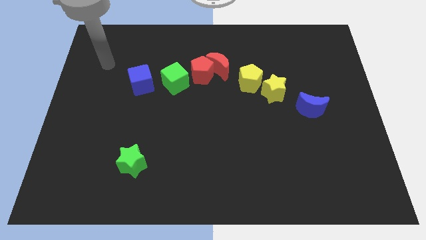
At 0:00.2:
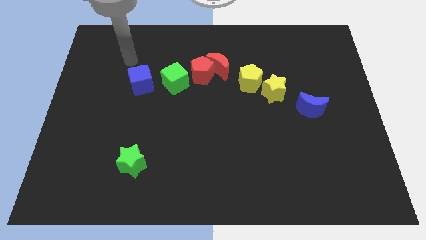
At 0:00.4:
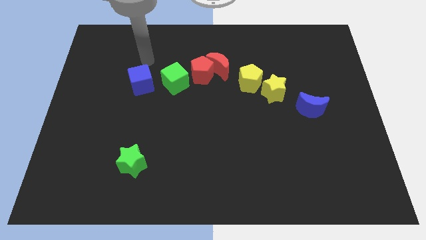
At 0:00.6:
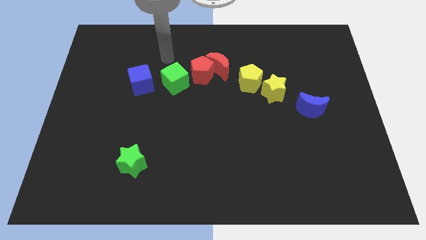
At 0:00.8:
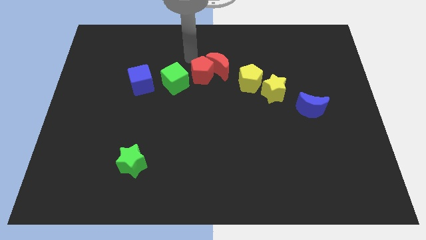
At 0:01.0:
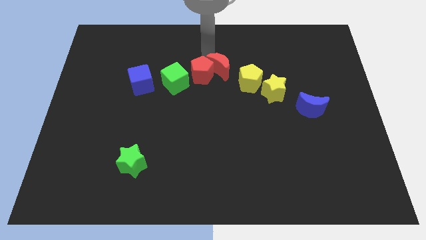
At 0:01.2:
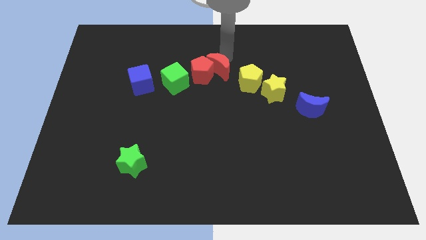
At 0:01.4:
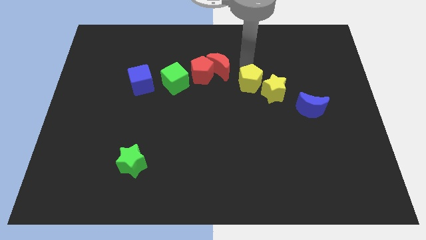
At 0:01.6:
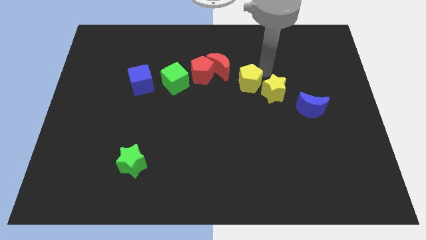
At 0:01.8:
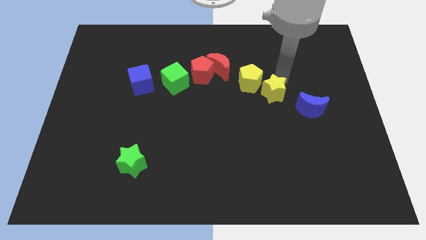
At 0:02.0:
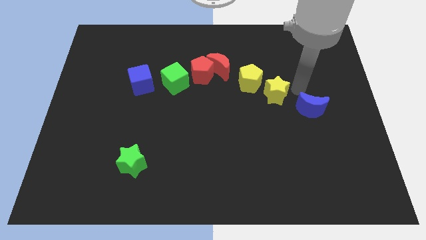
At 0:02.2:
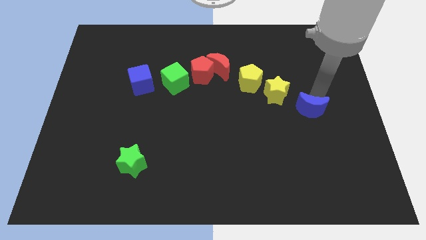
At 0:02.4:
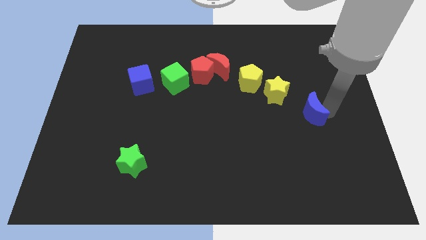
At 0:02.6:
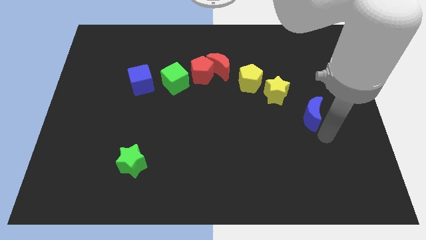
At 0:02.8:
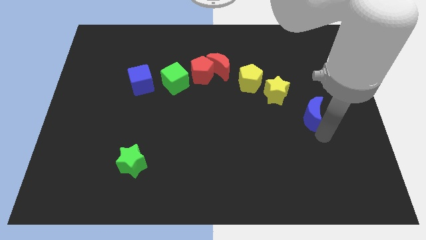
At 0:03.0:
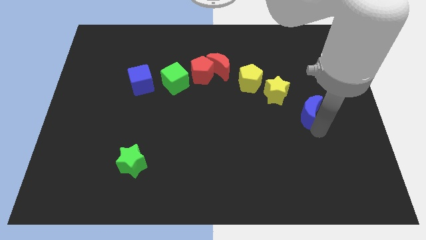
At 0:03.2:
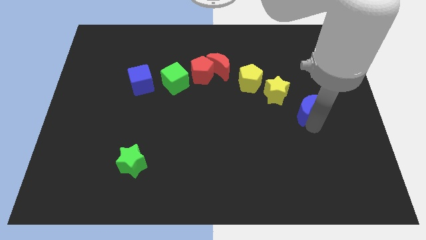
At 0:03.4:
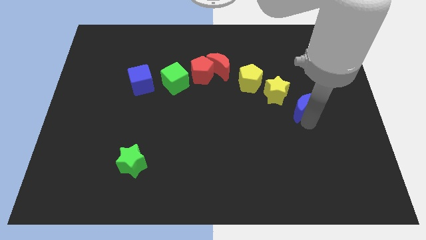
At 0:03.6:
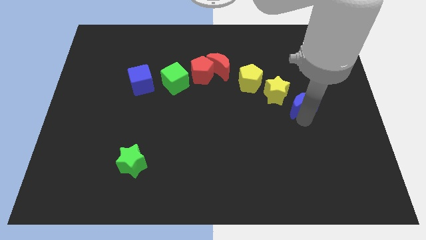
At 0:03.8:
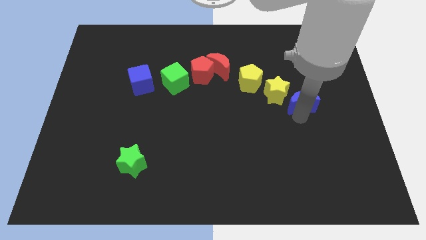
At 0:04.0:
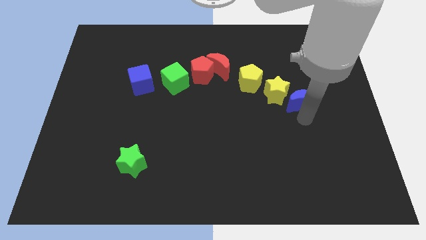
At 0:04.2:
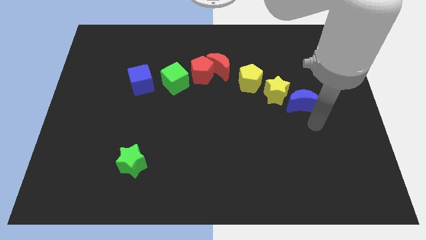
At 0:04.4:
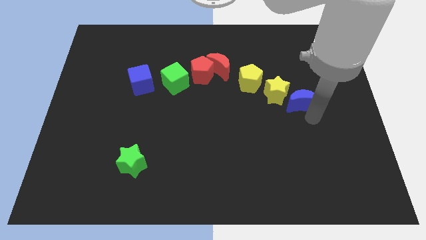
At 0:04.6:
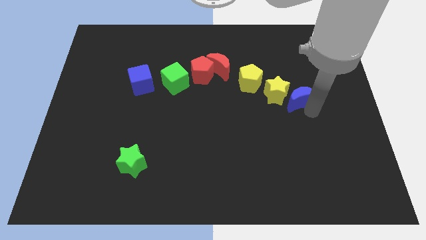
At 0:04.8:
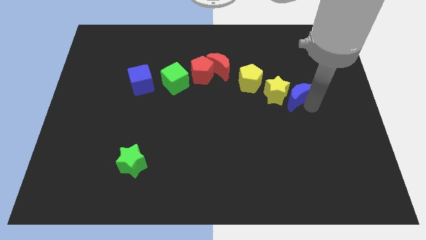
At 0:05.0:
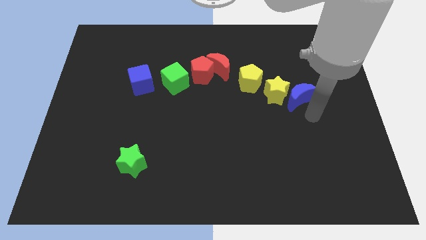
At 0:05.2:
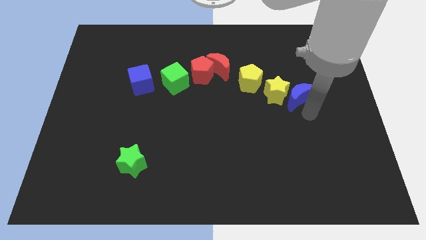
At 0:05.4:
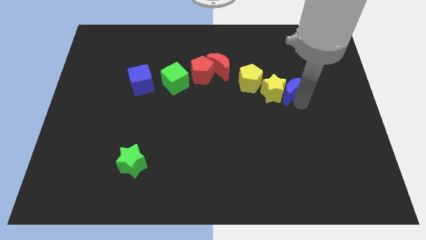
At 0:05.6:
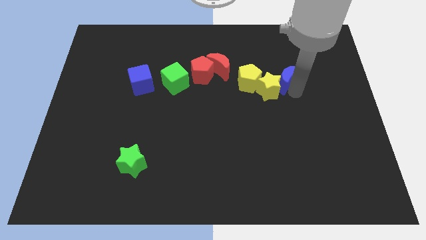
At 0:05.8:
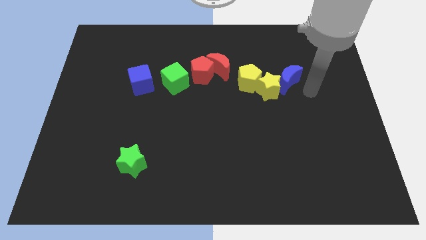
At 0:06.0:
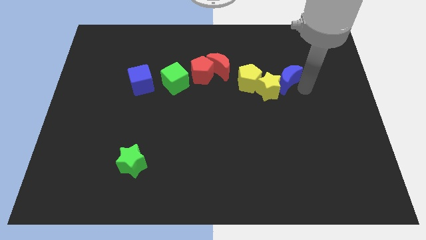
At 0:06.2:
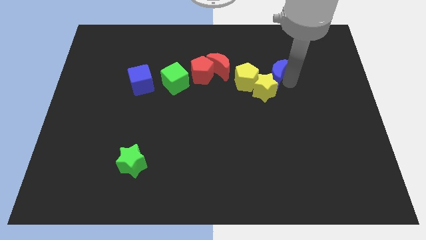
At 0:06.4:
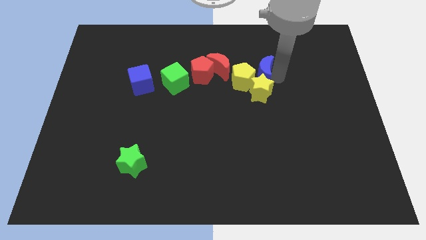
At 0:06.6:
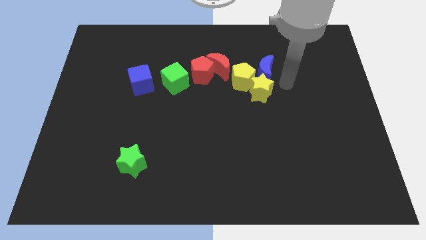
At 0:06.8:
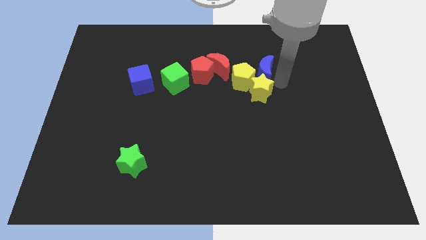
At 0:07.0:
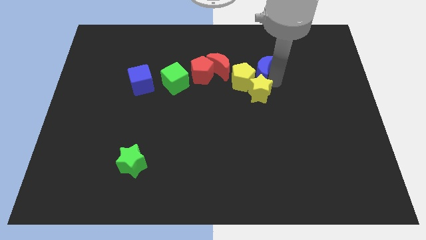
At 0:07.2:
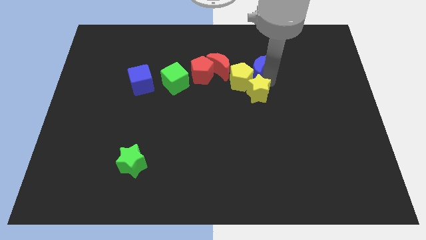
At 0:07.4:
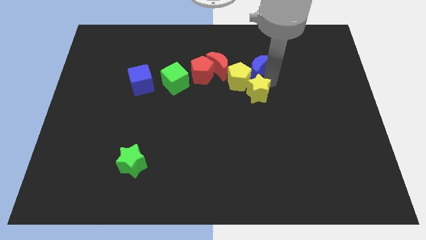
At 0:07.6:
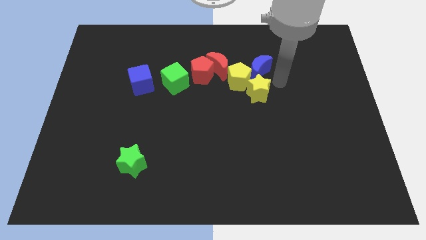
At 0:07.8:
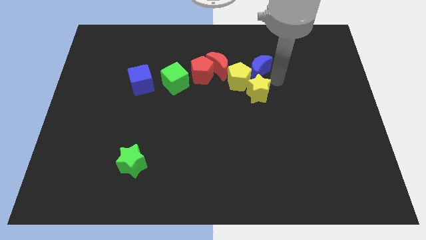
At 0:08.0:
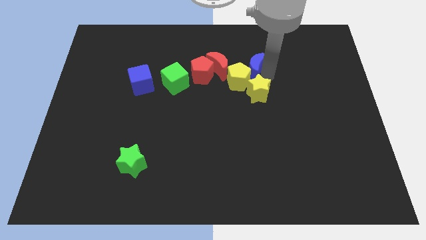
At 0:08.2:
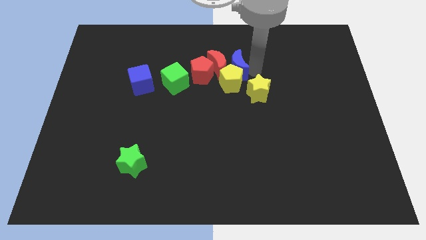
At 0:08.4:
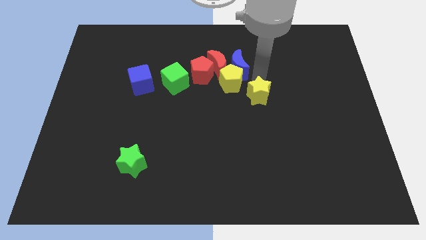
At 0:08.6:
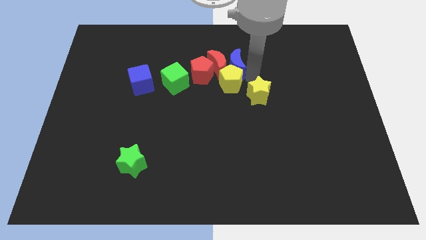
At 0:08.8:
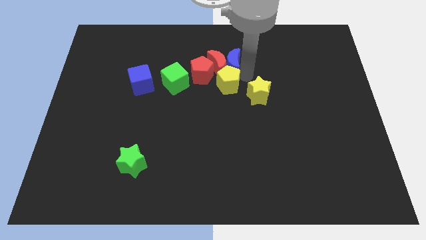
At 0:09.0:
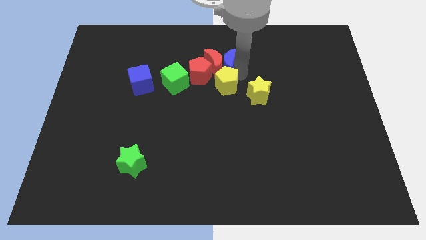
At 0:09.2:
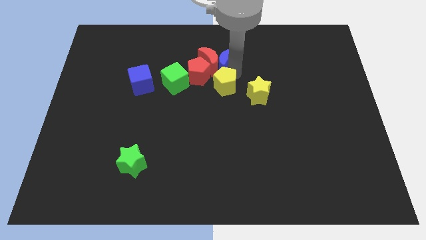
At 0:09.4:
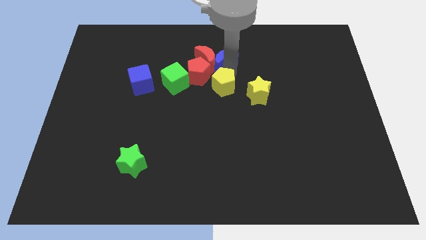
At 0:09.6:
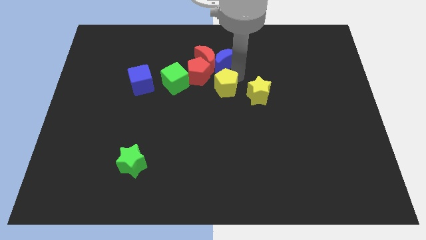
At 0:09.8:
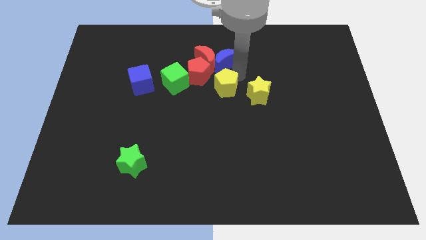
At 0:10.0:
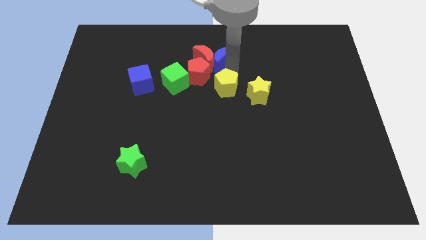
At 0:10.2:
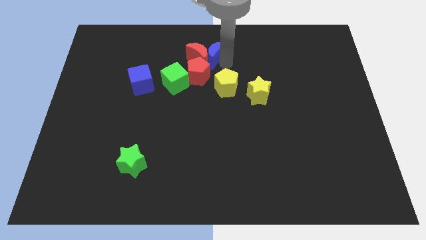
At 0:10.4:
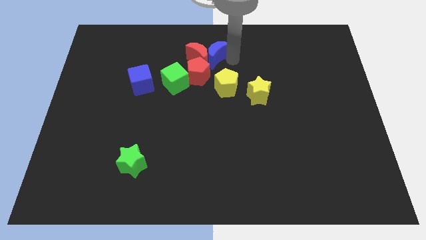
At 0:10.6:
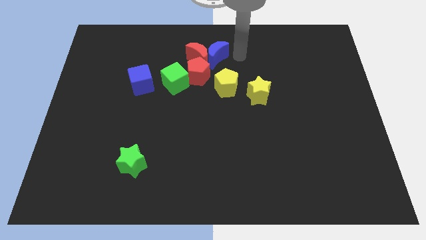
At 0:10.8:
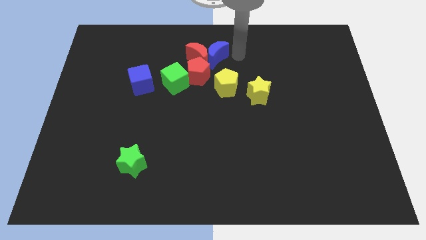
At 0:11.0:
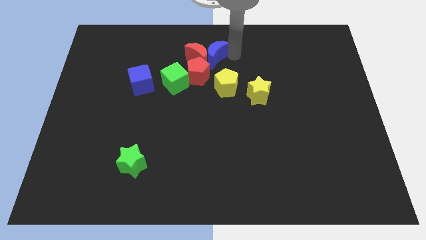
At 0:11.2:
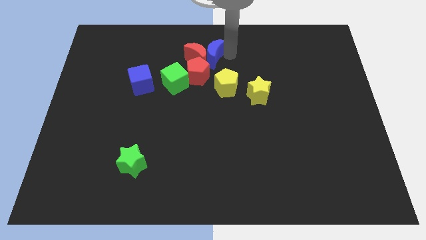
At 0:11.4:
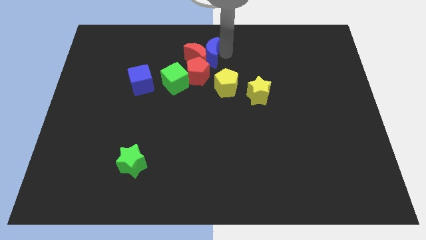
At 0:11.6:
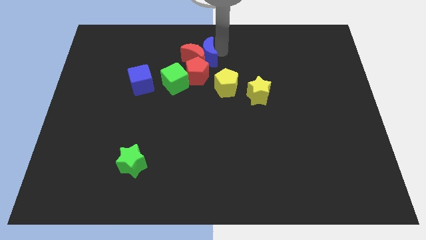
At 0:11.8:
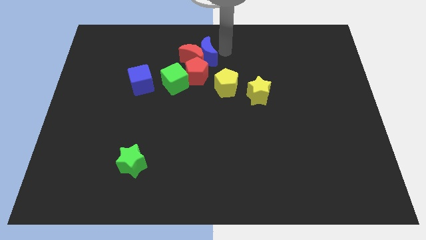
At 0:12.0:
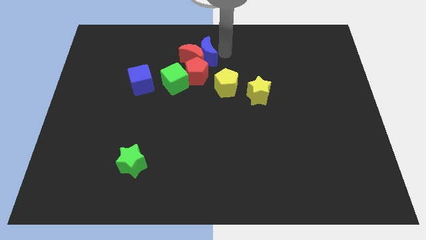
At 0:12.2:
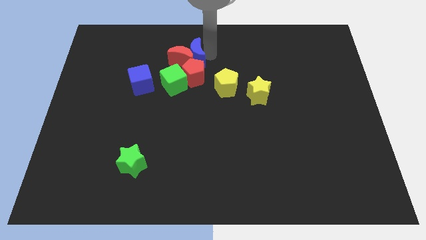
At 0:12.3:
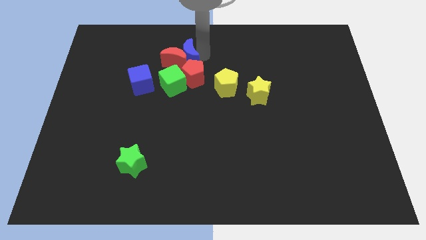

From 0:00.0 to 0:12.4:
move the blue moon to the top left side of the red pentagon

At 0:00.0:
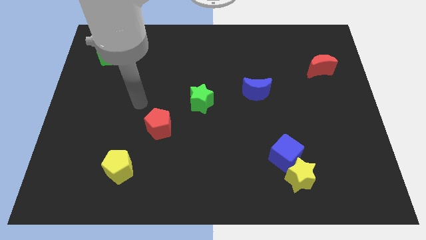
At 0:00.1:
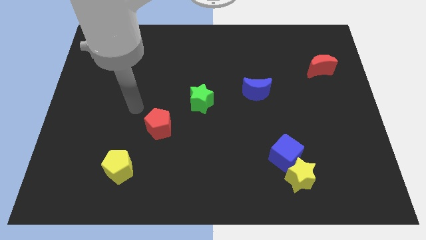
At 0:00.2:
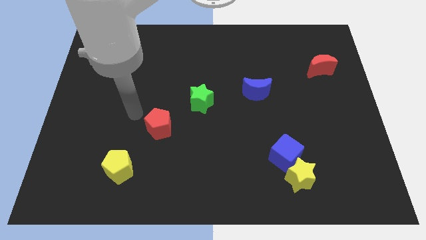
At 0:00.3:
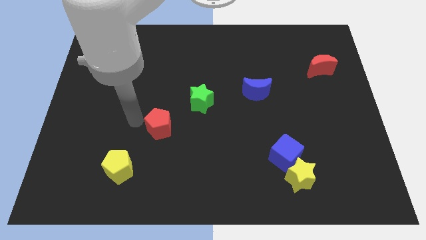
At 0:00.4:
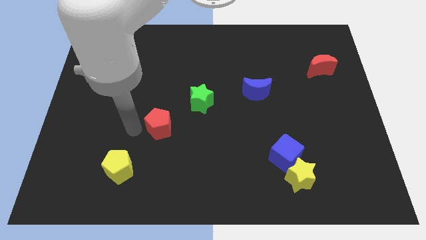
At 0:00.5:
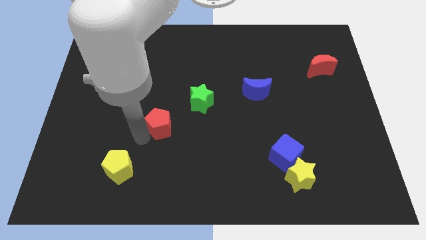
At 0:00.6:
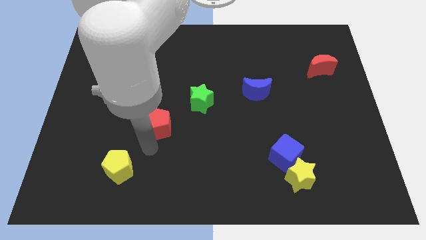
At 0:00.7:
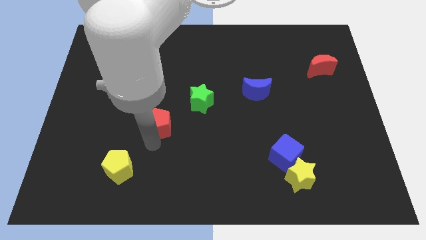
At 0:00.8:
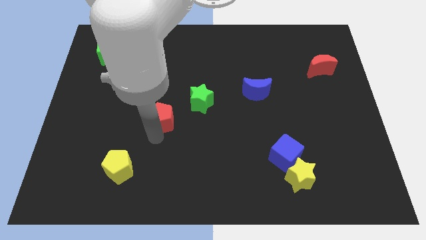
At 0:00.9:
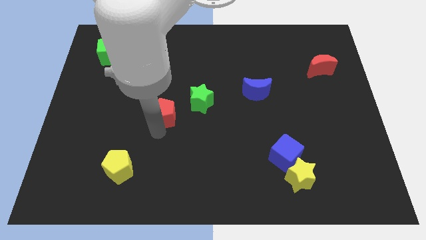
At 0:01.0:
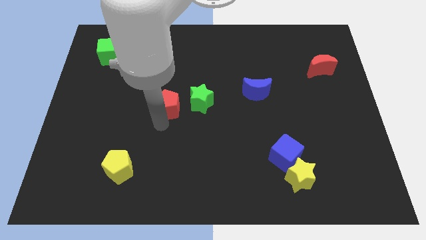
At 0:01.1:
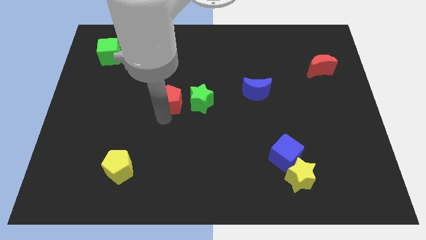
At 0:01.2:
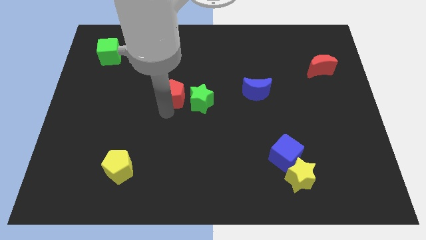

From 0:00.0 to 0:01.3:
move the red pentagon diagonally up and to the left of the green star
